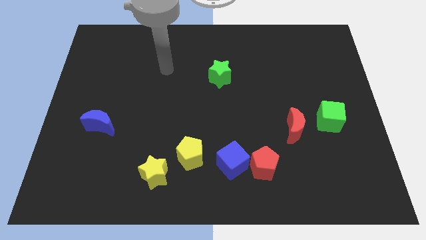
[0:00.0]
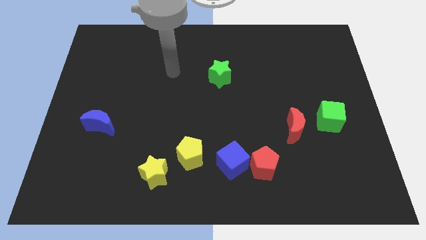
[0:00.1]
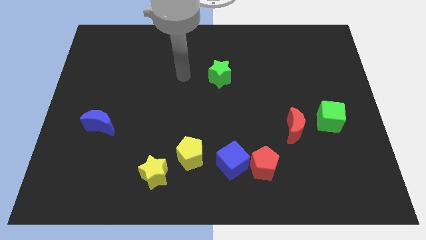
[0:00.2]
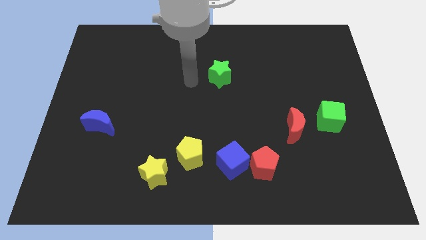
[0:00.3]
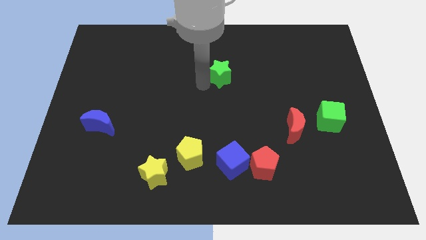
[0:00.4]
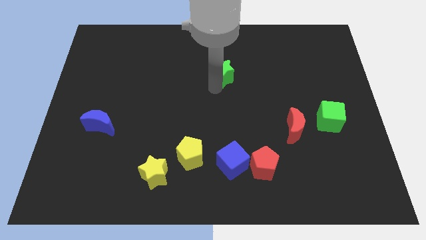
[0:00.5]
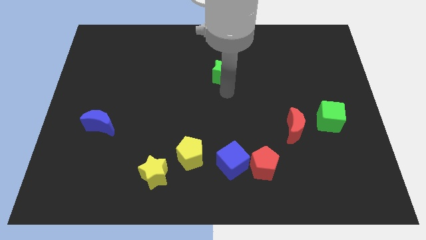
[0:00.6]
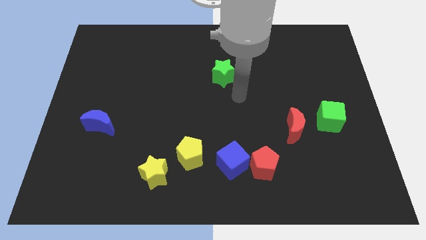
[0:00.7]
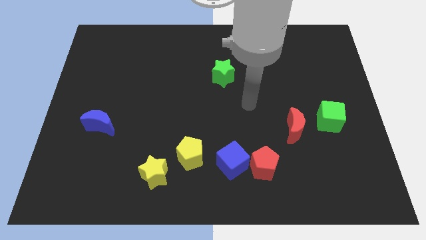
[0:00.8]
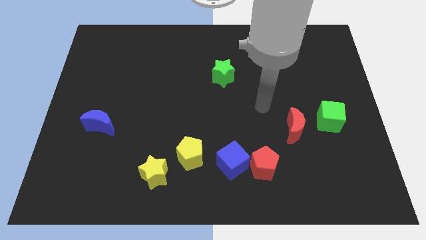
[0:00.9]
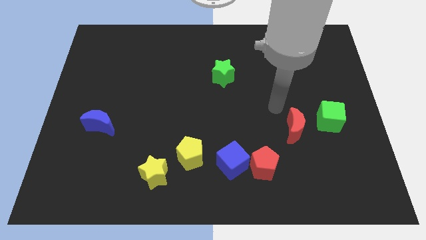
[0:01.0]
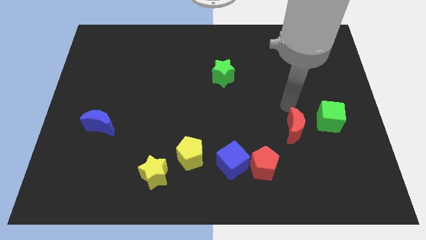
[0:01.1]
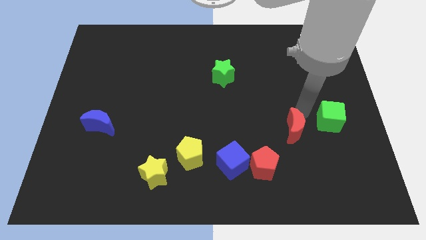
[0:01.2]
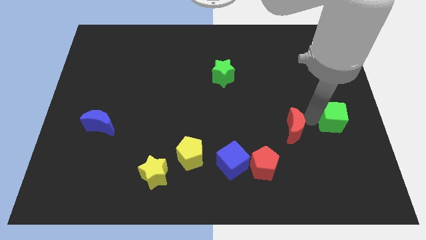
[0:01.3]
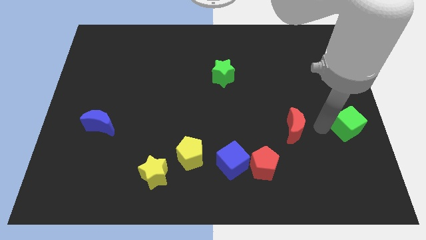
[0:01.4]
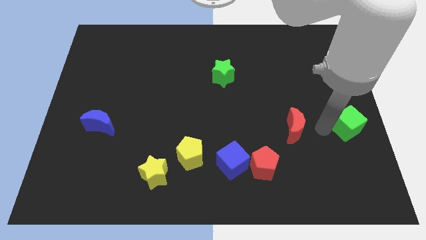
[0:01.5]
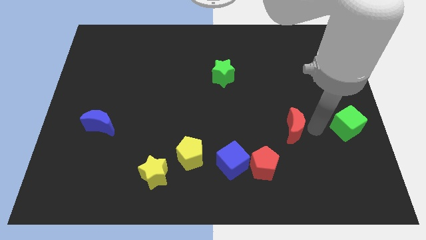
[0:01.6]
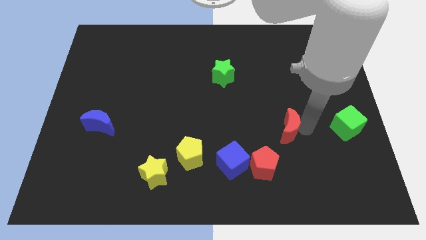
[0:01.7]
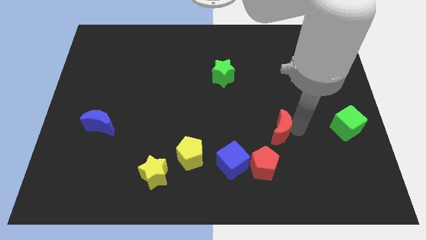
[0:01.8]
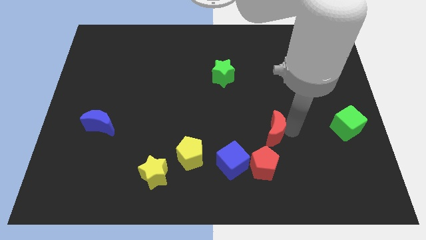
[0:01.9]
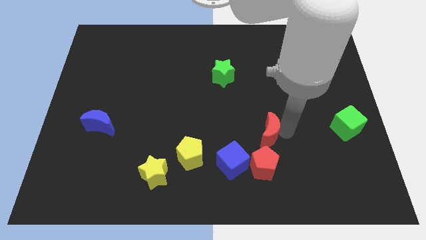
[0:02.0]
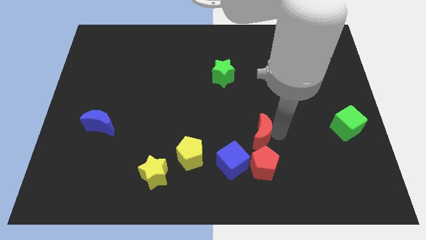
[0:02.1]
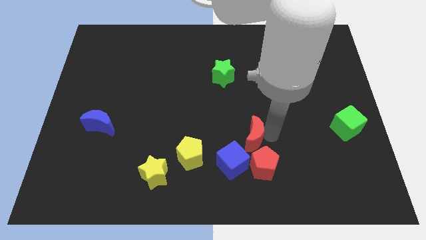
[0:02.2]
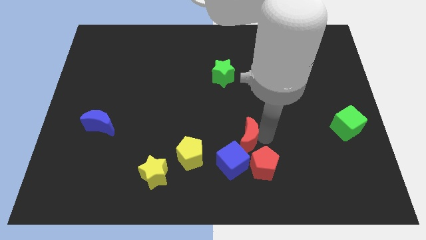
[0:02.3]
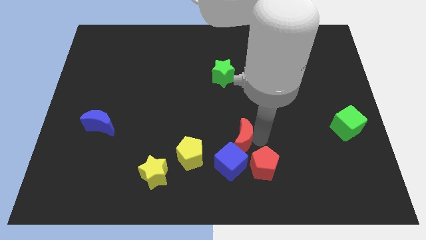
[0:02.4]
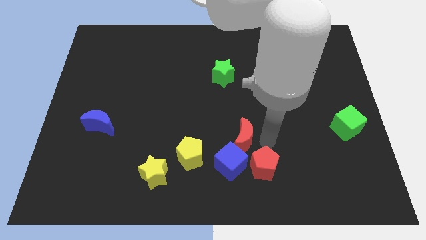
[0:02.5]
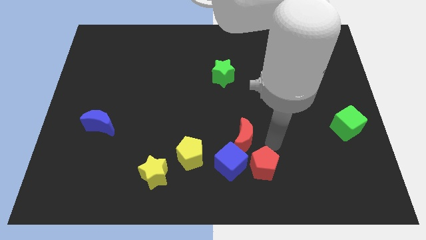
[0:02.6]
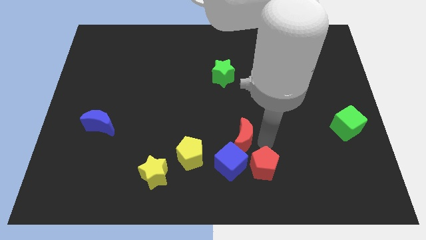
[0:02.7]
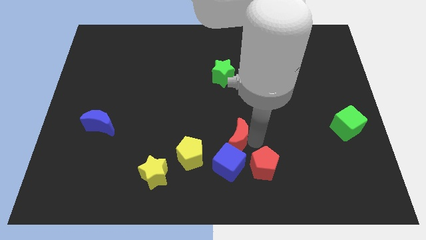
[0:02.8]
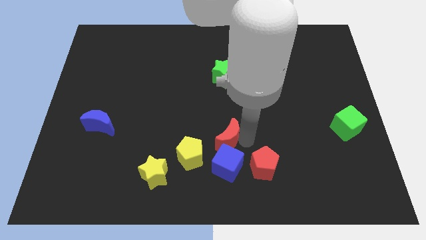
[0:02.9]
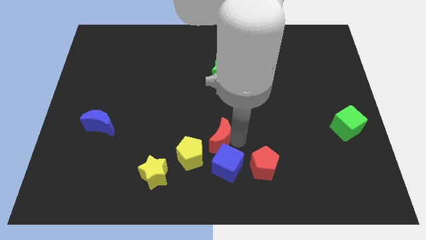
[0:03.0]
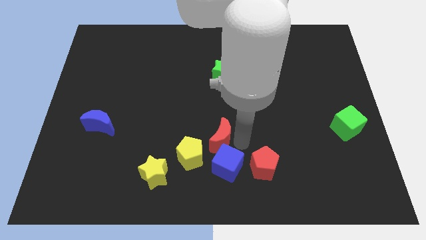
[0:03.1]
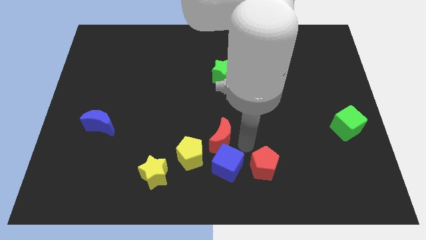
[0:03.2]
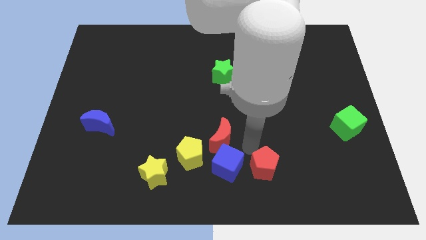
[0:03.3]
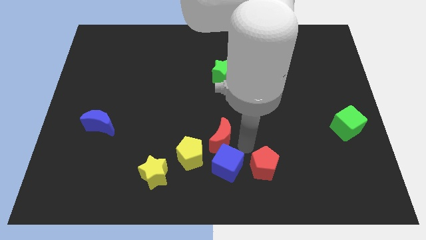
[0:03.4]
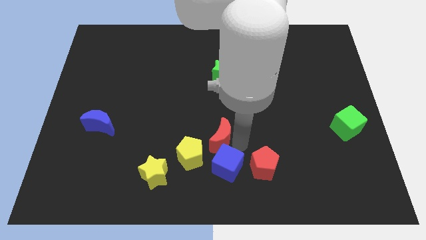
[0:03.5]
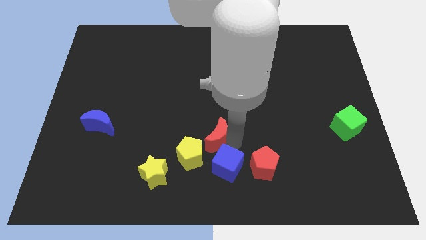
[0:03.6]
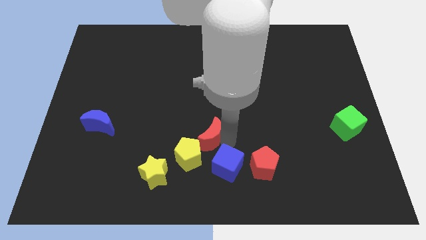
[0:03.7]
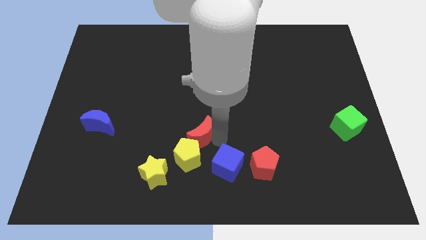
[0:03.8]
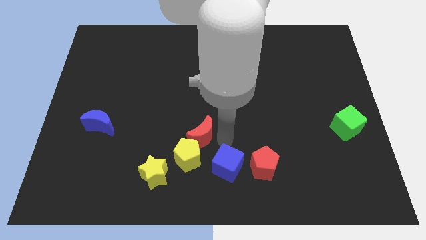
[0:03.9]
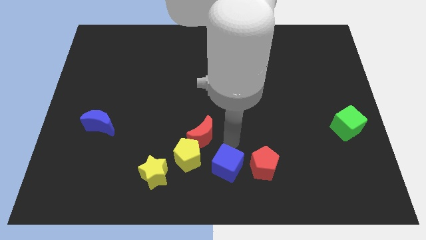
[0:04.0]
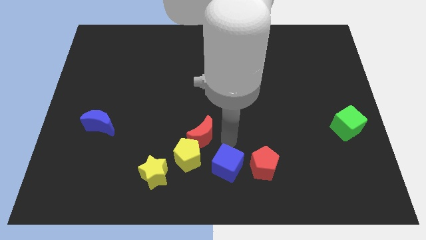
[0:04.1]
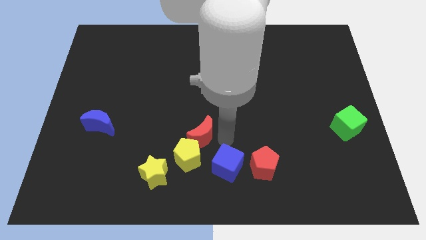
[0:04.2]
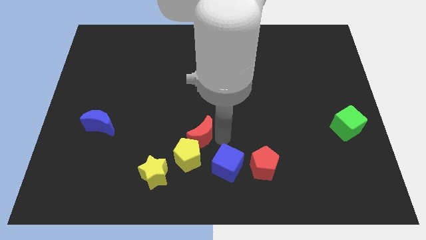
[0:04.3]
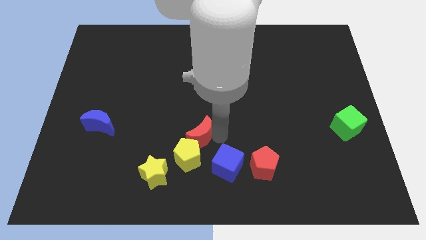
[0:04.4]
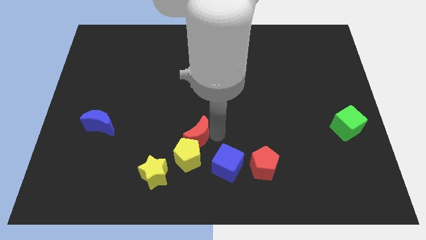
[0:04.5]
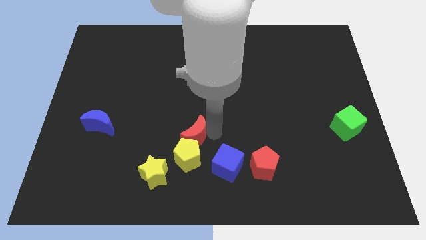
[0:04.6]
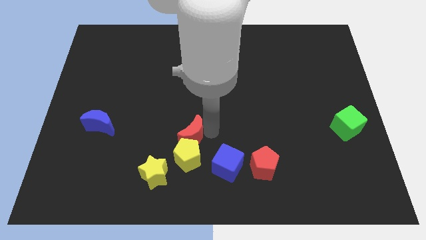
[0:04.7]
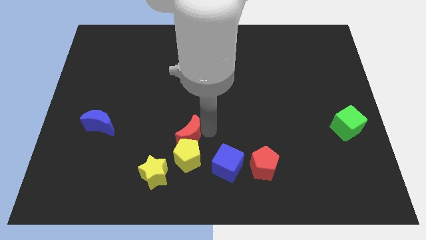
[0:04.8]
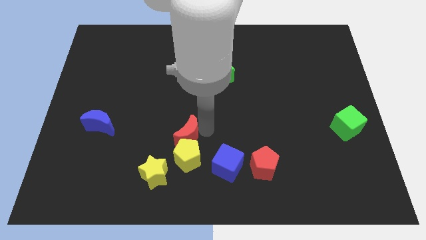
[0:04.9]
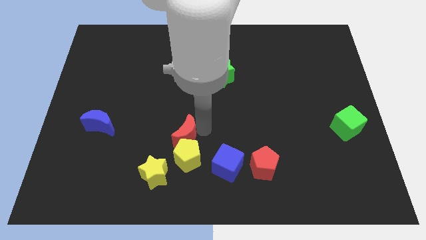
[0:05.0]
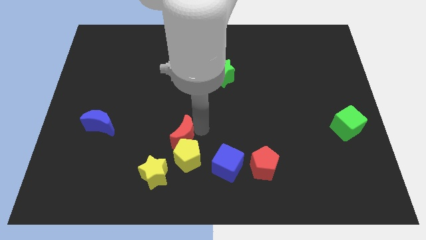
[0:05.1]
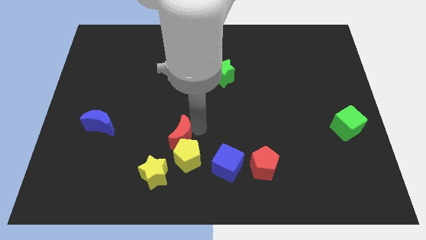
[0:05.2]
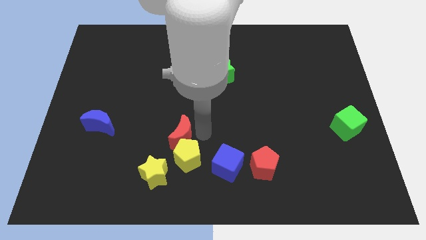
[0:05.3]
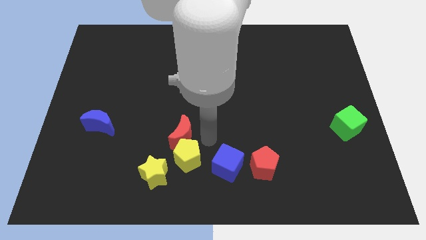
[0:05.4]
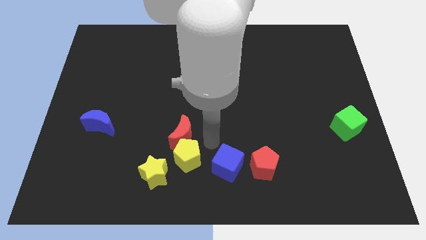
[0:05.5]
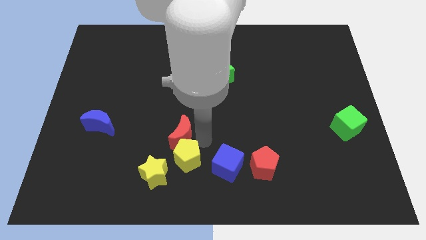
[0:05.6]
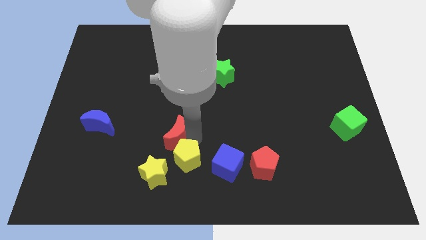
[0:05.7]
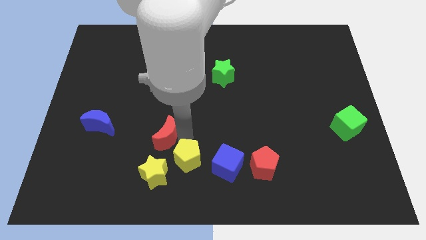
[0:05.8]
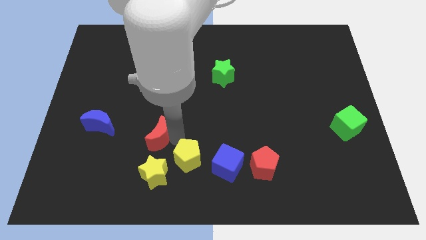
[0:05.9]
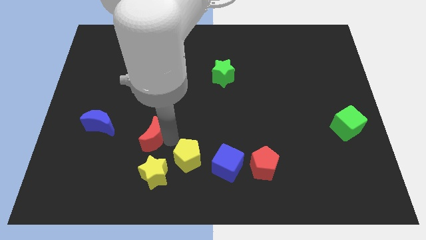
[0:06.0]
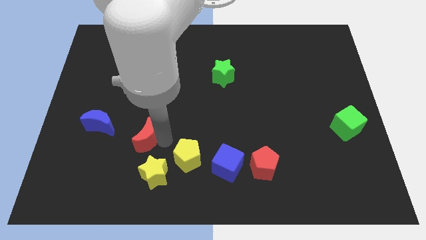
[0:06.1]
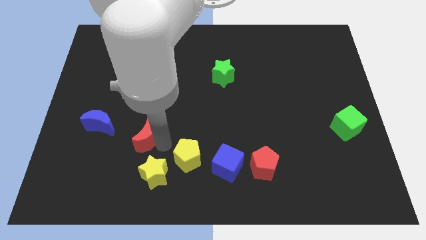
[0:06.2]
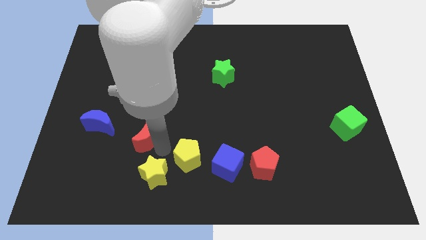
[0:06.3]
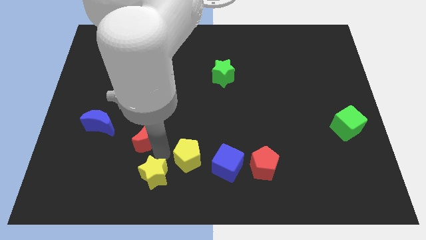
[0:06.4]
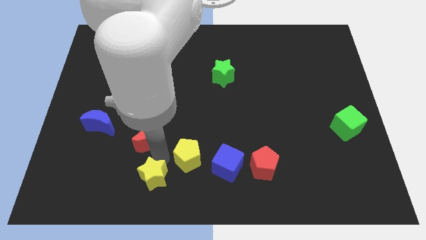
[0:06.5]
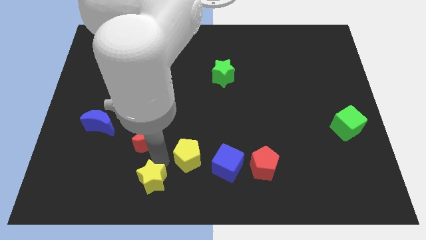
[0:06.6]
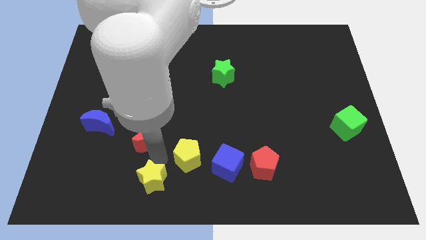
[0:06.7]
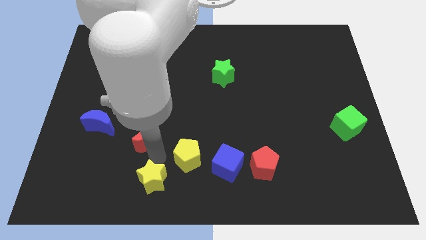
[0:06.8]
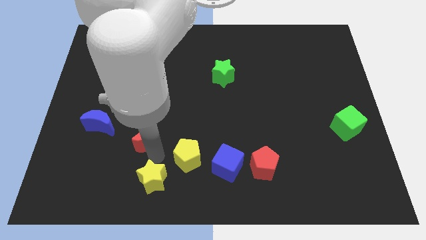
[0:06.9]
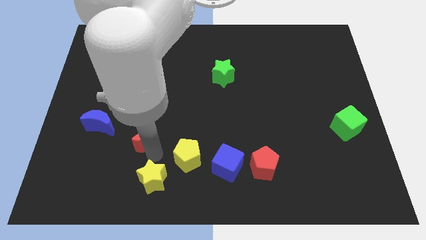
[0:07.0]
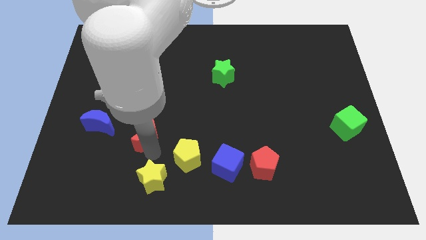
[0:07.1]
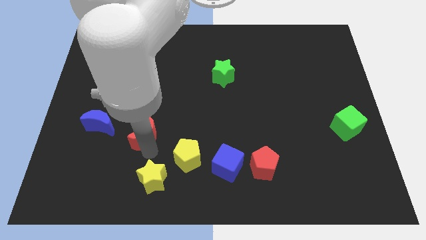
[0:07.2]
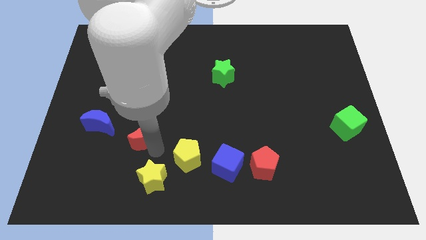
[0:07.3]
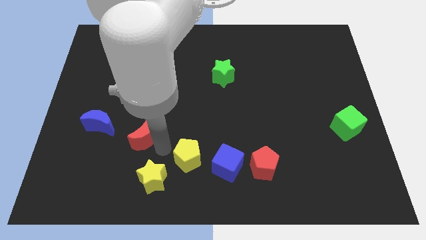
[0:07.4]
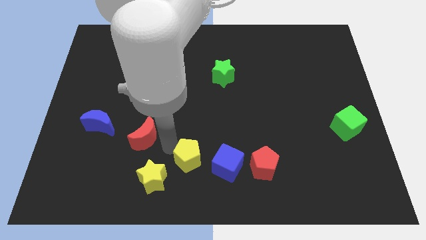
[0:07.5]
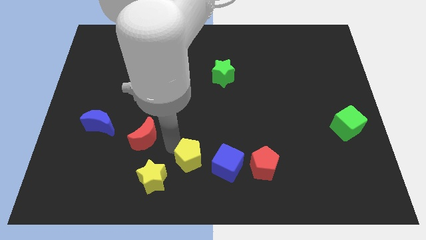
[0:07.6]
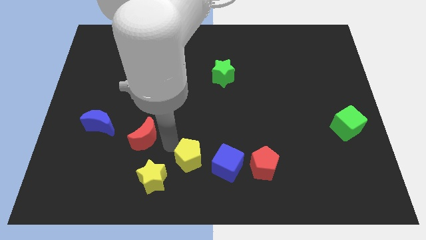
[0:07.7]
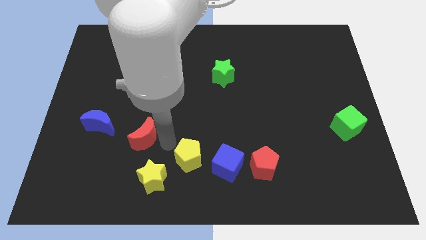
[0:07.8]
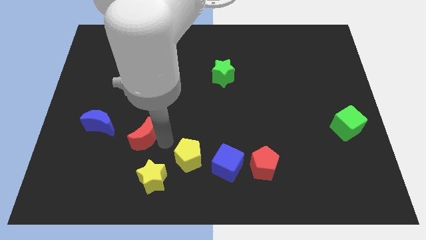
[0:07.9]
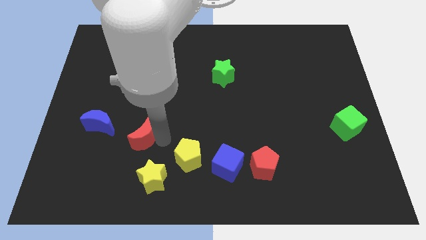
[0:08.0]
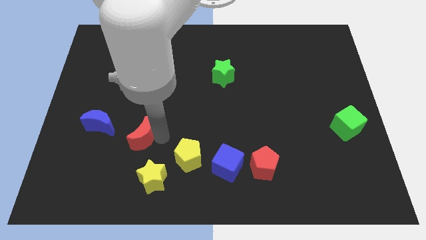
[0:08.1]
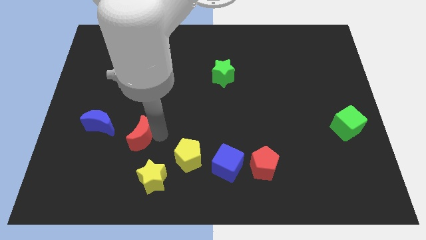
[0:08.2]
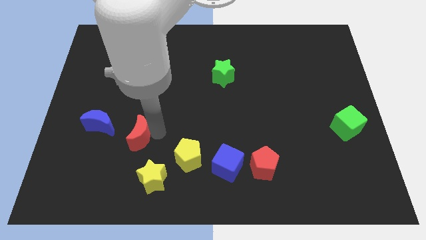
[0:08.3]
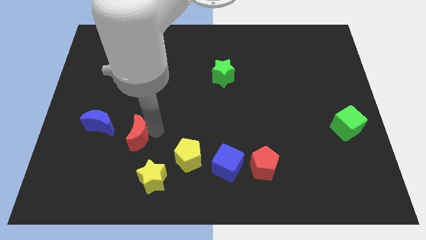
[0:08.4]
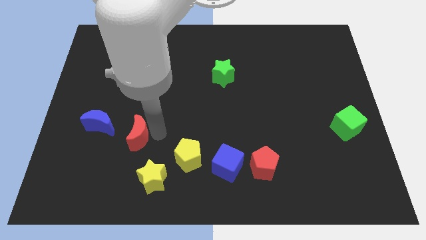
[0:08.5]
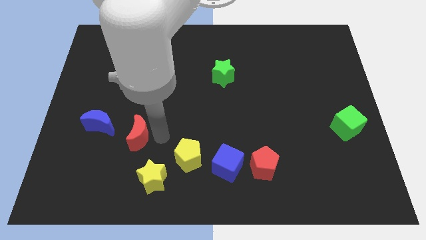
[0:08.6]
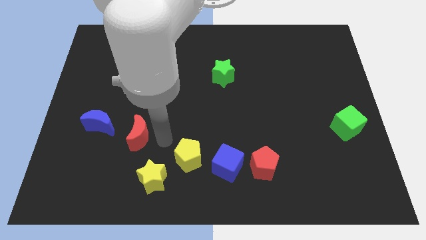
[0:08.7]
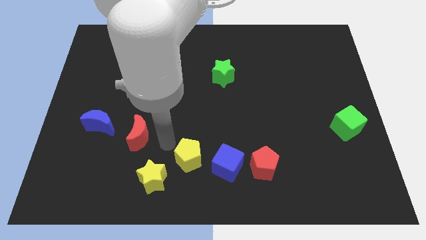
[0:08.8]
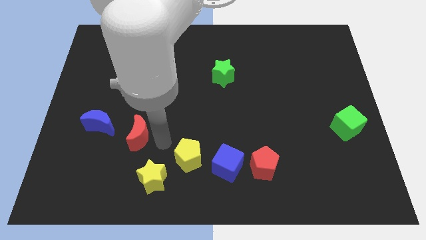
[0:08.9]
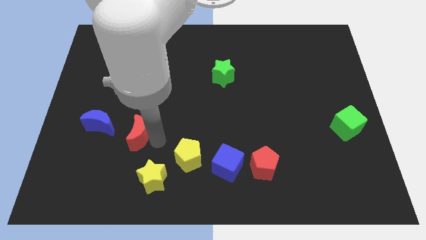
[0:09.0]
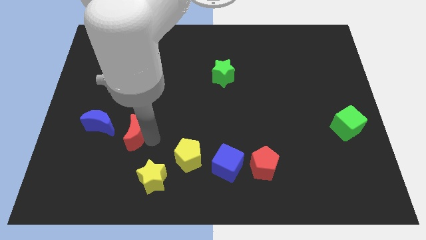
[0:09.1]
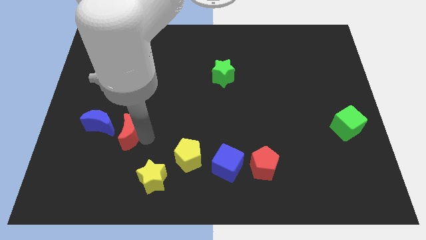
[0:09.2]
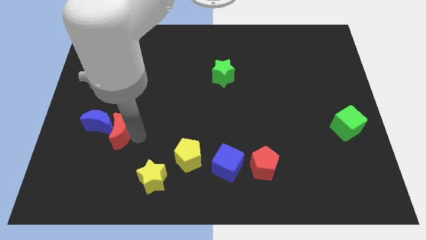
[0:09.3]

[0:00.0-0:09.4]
slide the red moon towards the blue moon
